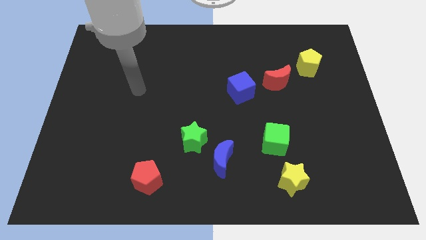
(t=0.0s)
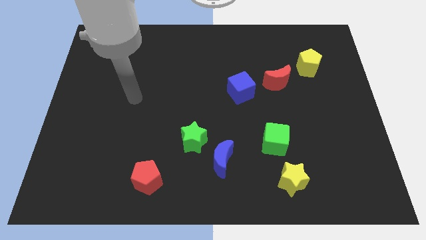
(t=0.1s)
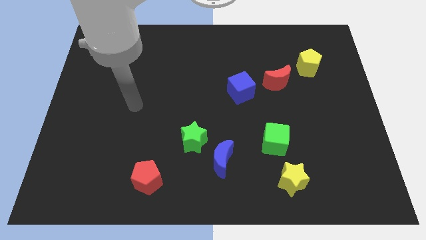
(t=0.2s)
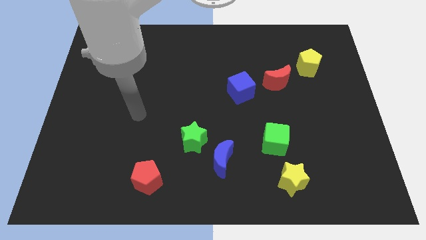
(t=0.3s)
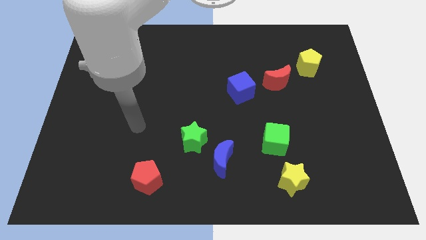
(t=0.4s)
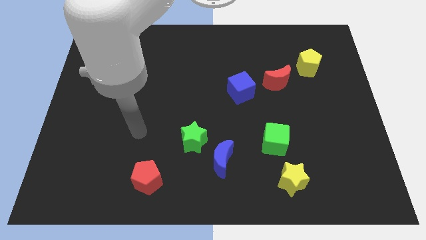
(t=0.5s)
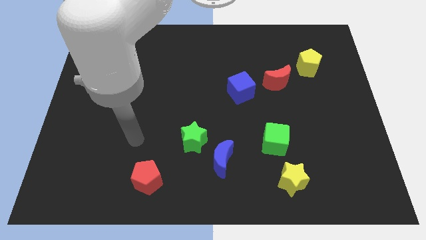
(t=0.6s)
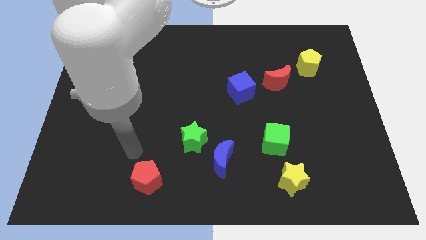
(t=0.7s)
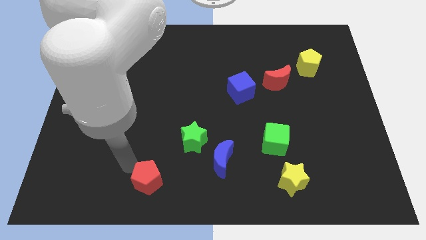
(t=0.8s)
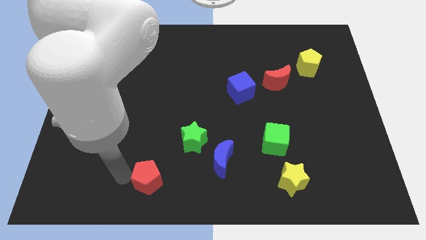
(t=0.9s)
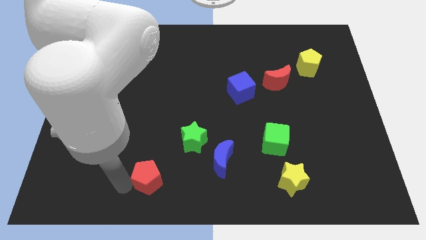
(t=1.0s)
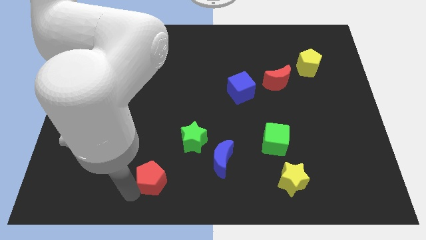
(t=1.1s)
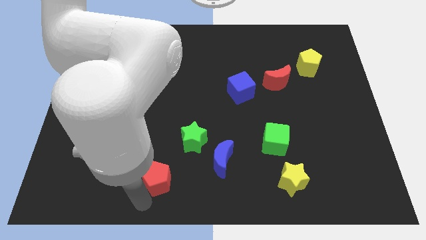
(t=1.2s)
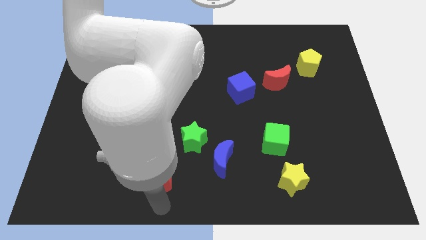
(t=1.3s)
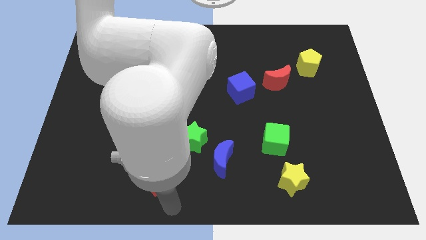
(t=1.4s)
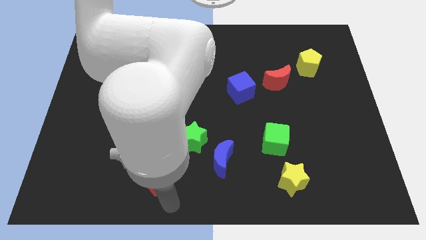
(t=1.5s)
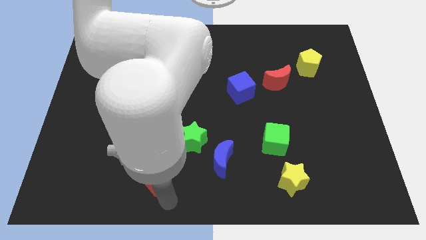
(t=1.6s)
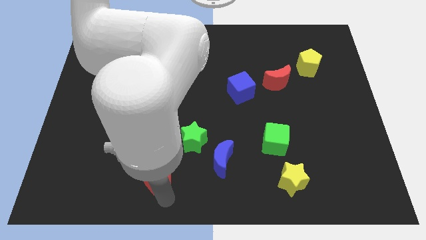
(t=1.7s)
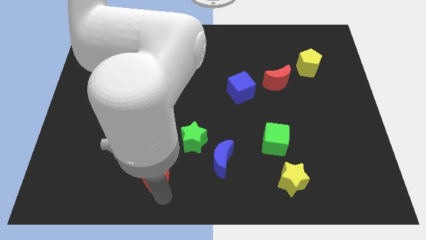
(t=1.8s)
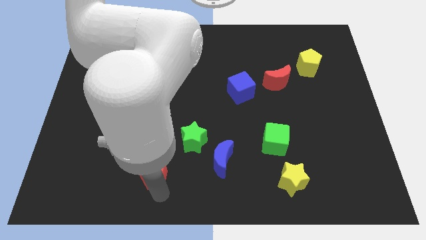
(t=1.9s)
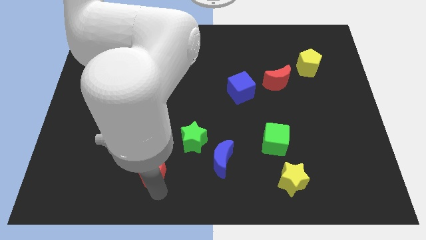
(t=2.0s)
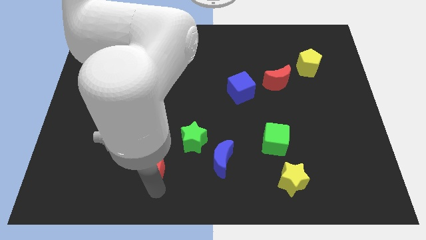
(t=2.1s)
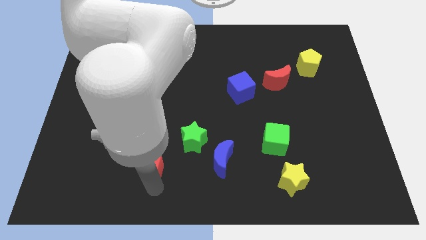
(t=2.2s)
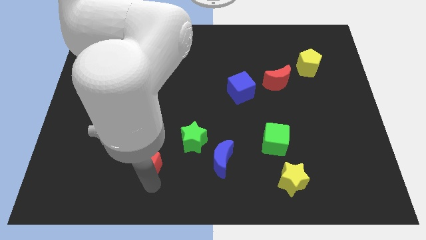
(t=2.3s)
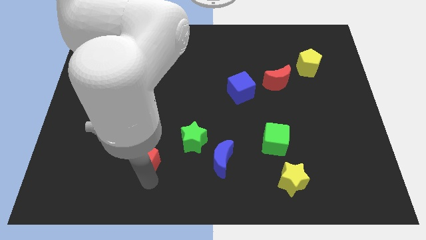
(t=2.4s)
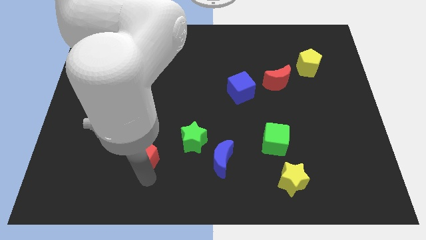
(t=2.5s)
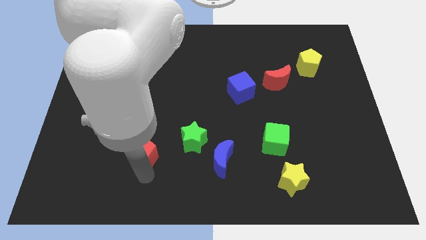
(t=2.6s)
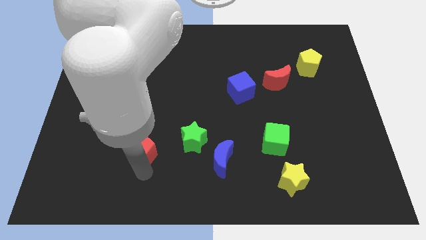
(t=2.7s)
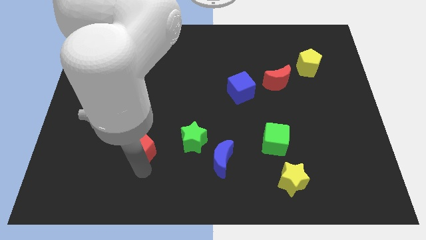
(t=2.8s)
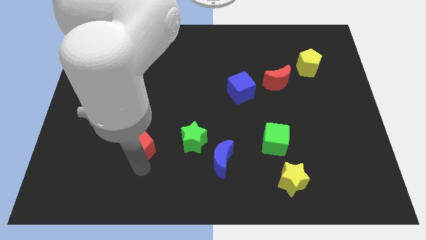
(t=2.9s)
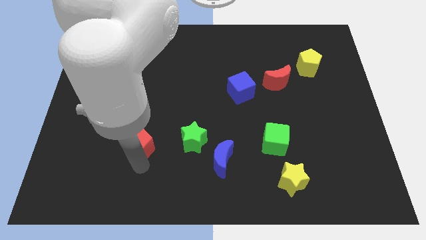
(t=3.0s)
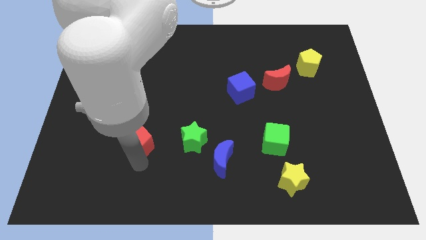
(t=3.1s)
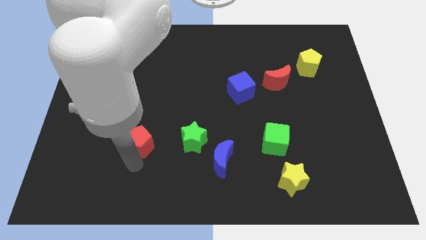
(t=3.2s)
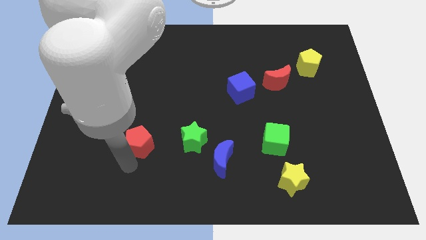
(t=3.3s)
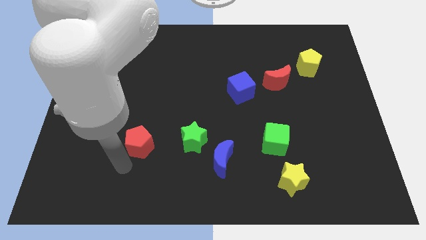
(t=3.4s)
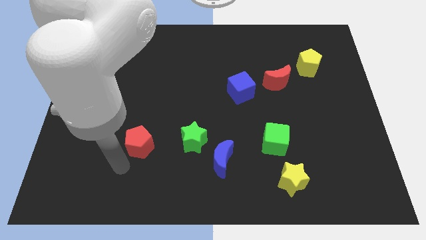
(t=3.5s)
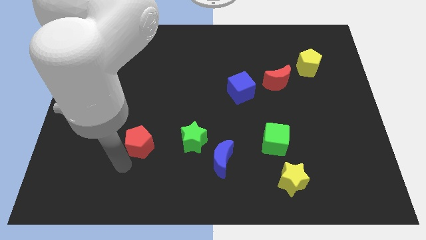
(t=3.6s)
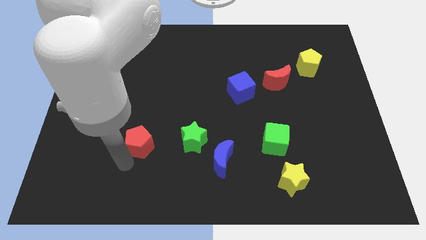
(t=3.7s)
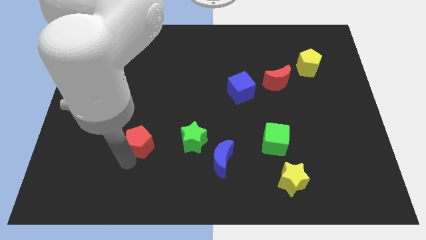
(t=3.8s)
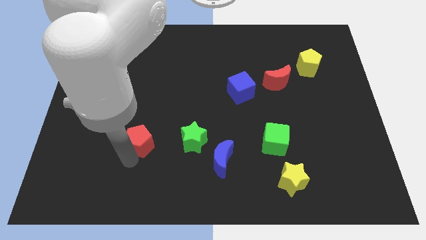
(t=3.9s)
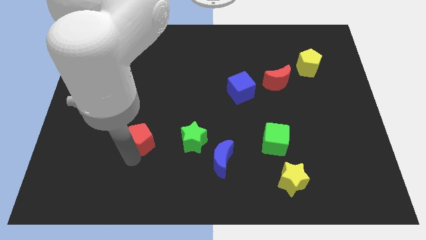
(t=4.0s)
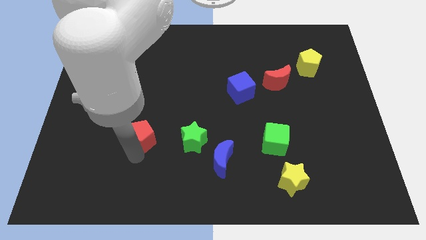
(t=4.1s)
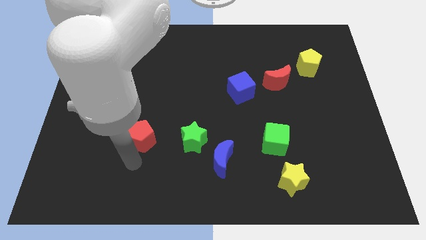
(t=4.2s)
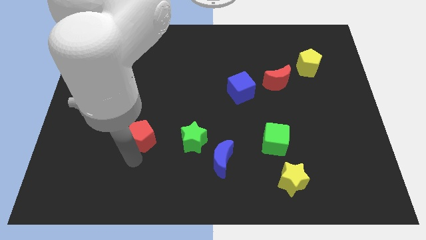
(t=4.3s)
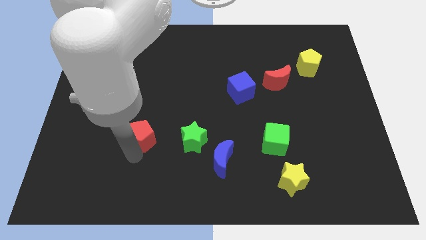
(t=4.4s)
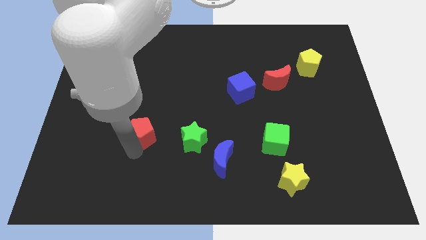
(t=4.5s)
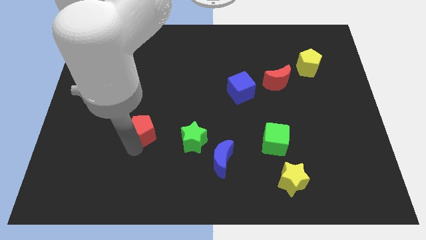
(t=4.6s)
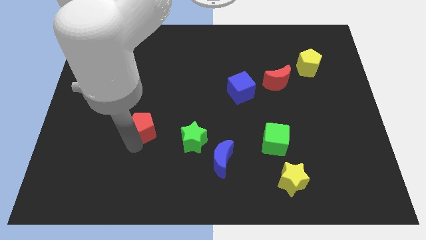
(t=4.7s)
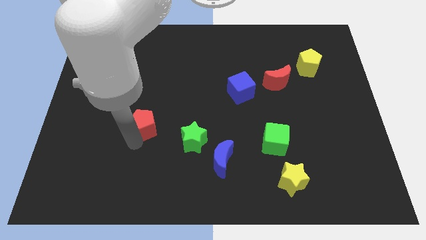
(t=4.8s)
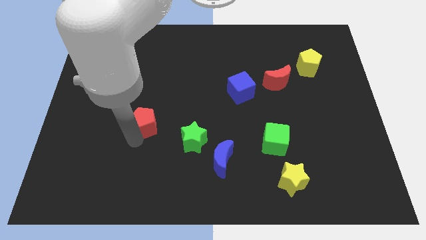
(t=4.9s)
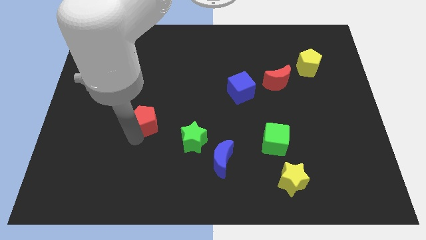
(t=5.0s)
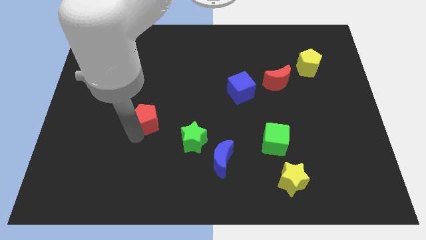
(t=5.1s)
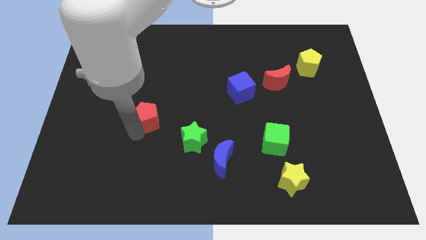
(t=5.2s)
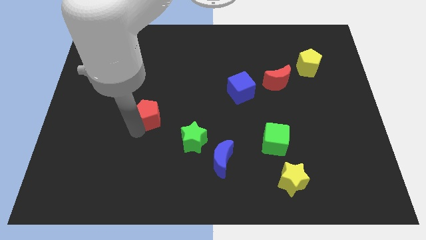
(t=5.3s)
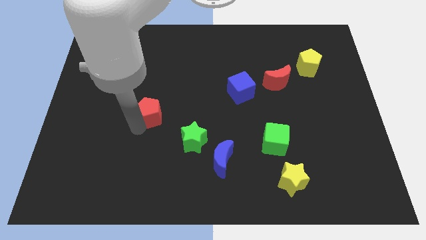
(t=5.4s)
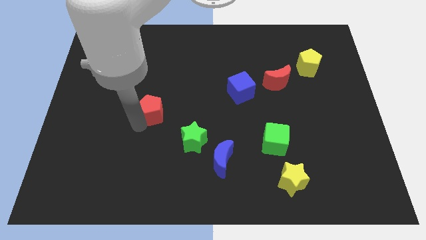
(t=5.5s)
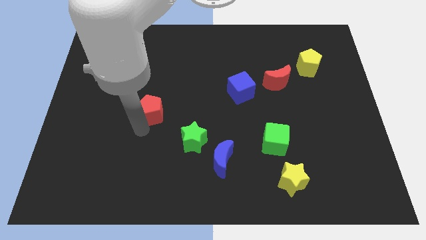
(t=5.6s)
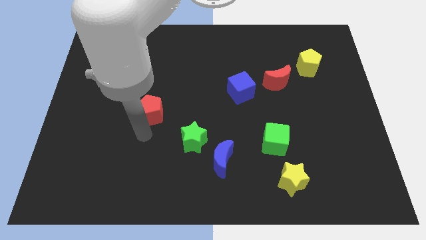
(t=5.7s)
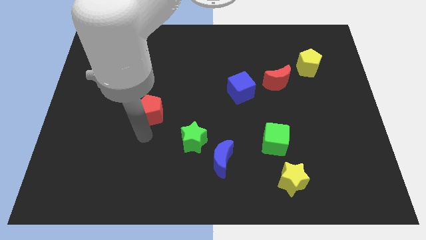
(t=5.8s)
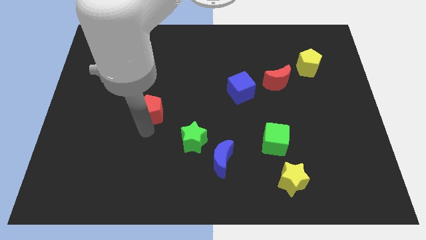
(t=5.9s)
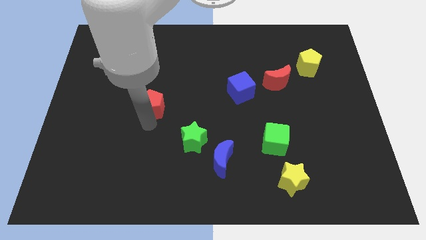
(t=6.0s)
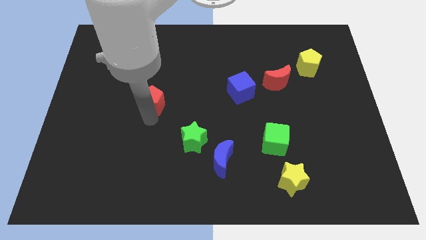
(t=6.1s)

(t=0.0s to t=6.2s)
move the red pentagon upwards

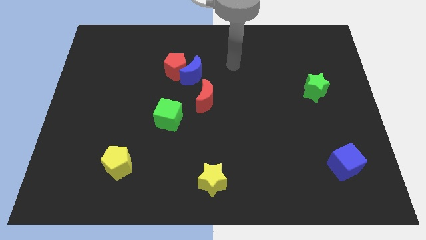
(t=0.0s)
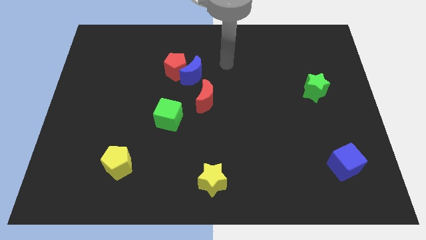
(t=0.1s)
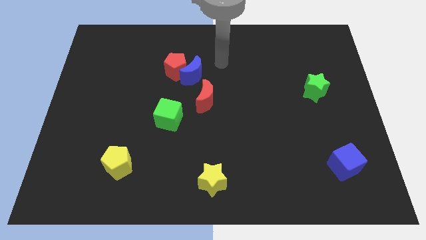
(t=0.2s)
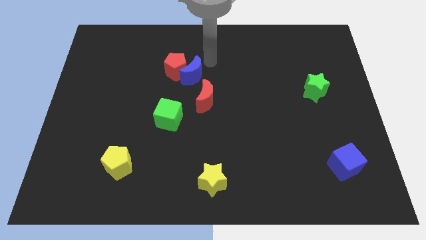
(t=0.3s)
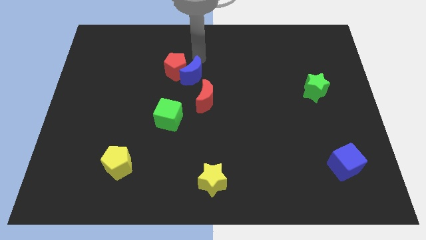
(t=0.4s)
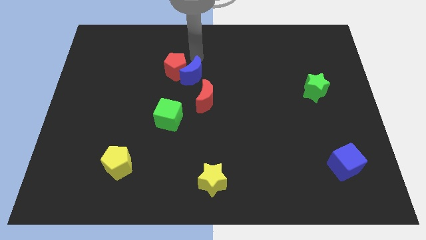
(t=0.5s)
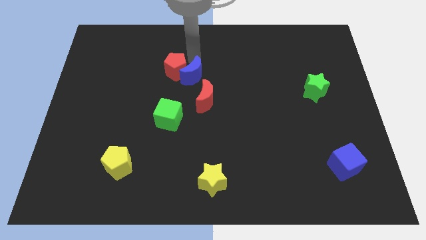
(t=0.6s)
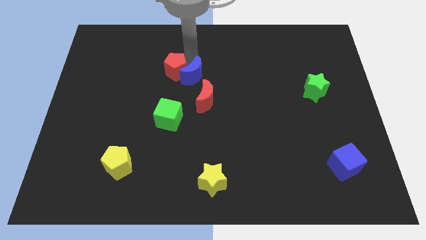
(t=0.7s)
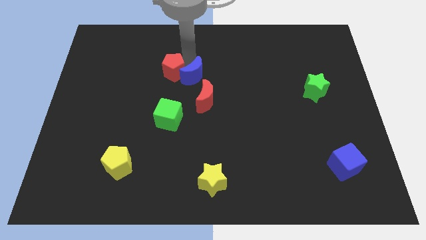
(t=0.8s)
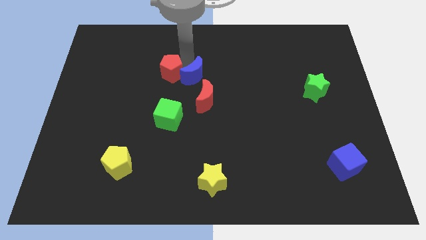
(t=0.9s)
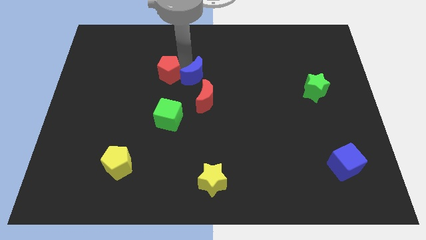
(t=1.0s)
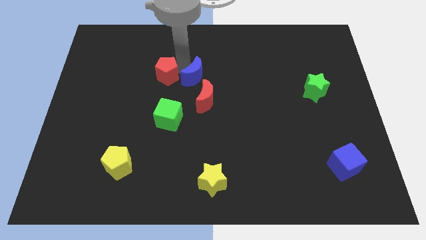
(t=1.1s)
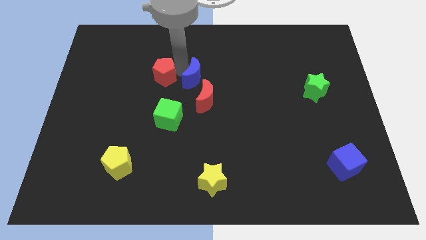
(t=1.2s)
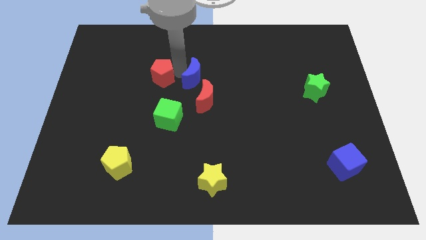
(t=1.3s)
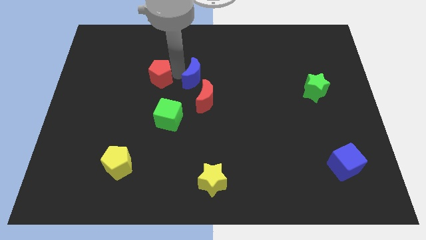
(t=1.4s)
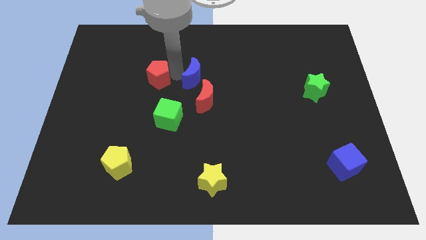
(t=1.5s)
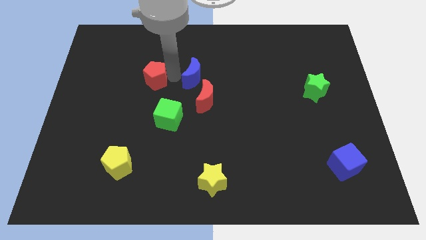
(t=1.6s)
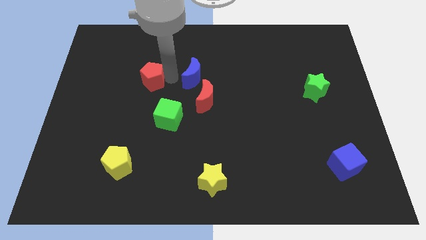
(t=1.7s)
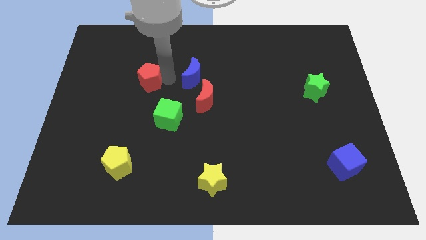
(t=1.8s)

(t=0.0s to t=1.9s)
move the red pentagon diagonally downwards and to the left a little
